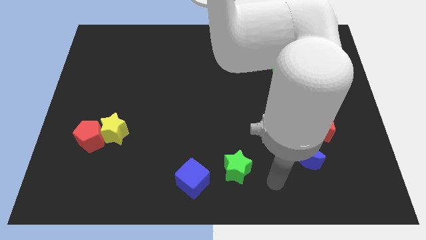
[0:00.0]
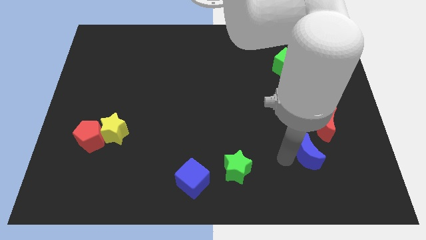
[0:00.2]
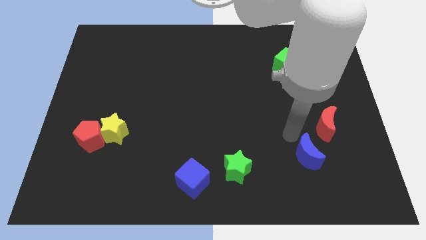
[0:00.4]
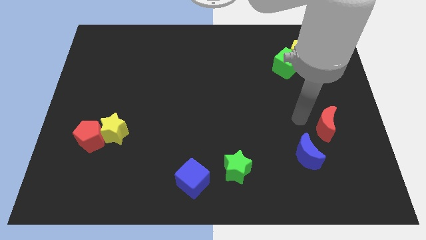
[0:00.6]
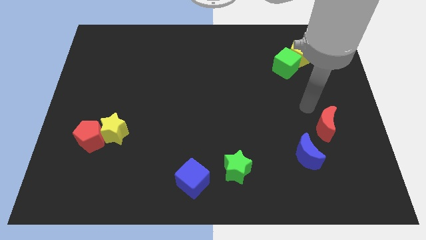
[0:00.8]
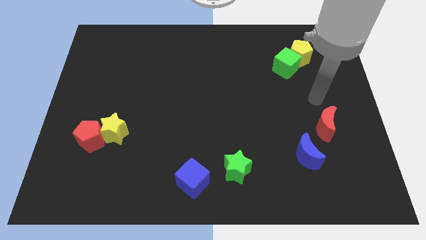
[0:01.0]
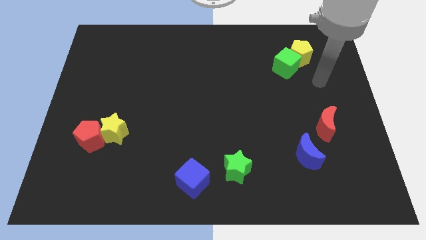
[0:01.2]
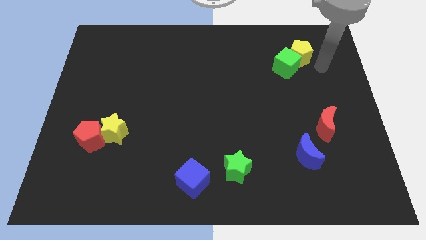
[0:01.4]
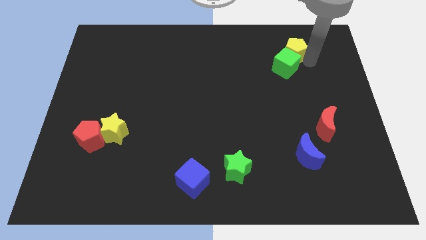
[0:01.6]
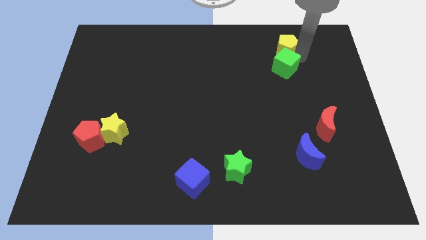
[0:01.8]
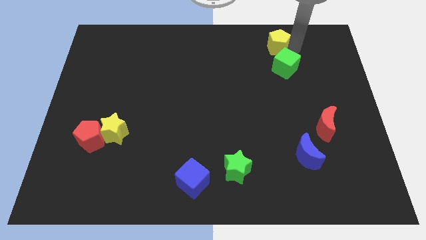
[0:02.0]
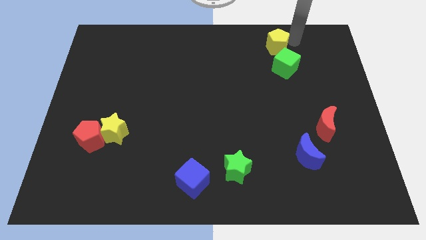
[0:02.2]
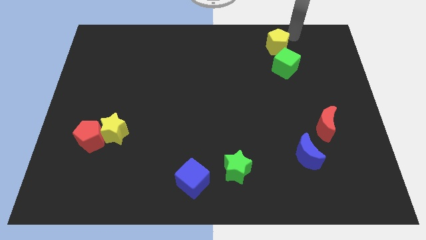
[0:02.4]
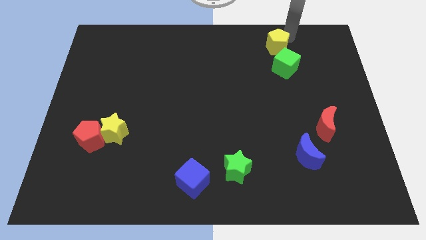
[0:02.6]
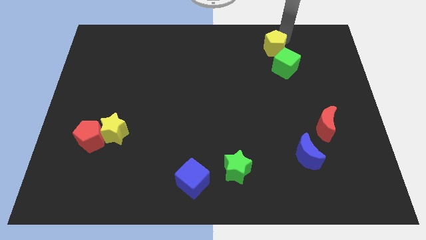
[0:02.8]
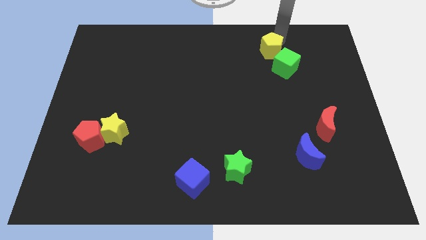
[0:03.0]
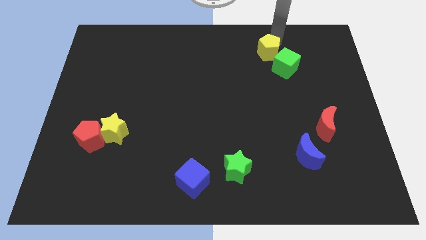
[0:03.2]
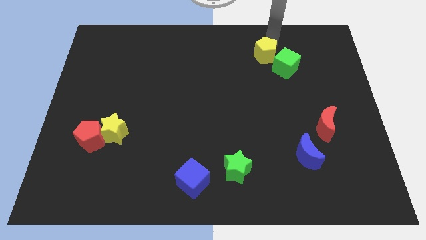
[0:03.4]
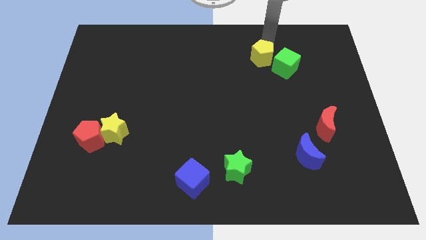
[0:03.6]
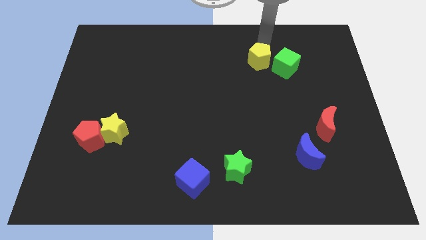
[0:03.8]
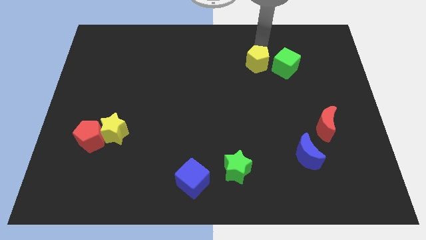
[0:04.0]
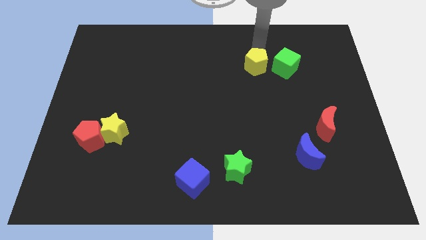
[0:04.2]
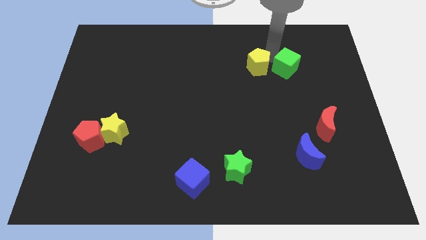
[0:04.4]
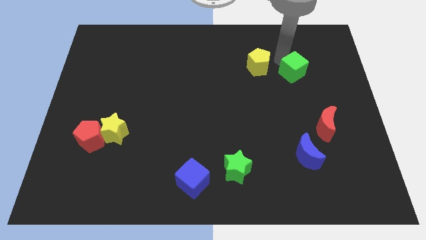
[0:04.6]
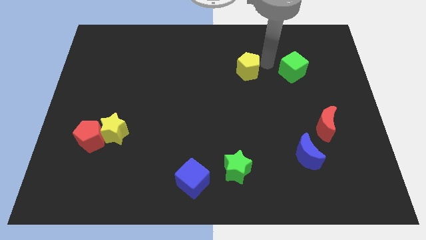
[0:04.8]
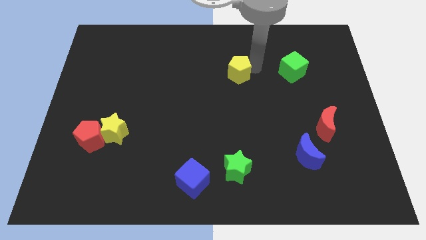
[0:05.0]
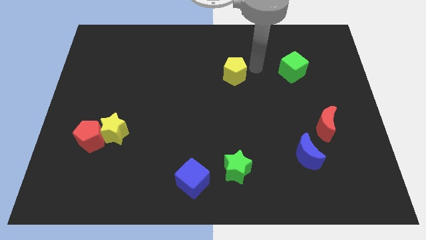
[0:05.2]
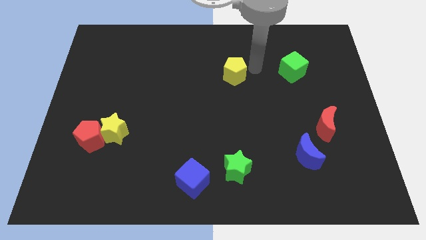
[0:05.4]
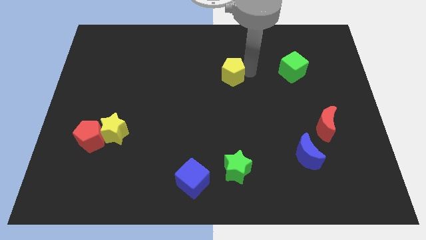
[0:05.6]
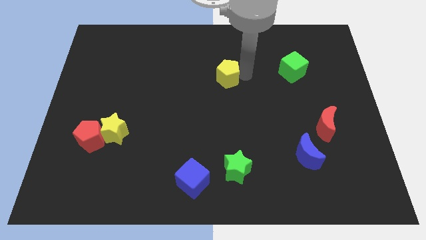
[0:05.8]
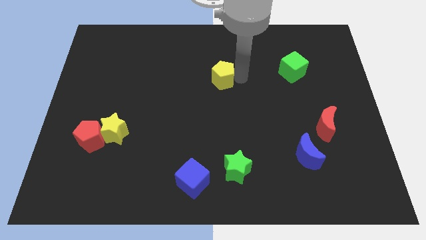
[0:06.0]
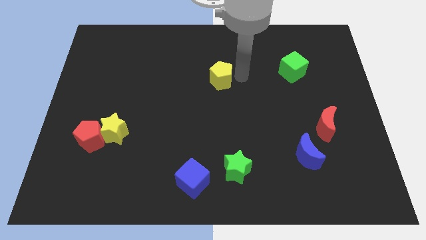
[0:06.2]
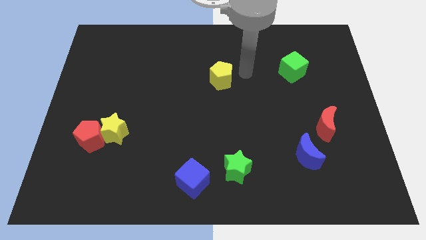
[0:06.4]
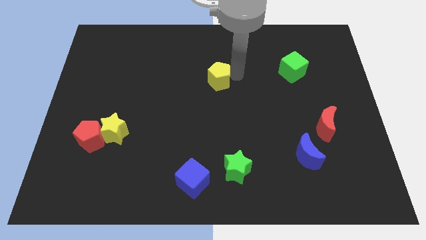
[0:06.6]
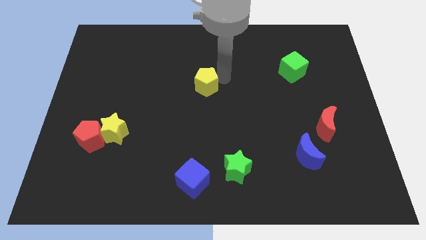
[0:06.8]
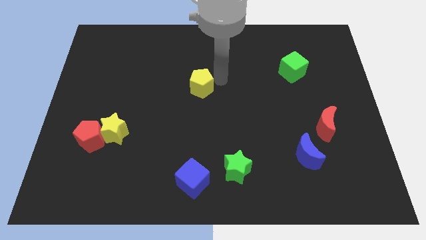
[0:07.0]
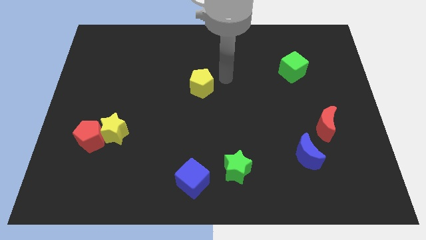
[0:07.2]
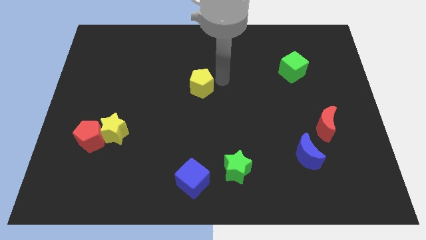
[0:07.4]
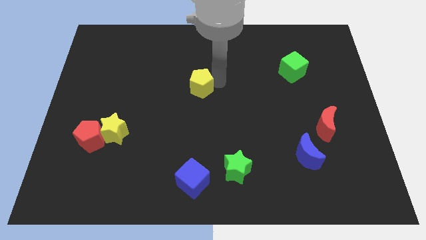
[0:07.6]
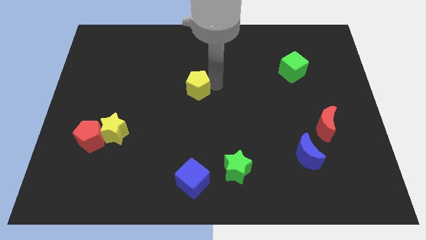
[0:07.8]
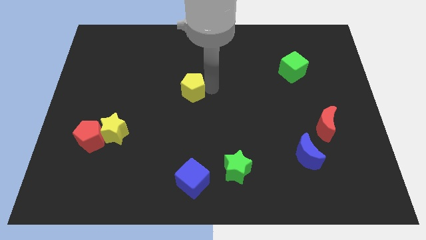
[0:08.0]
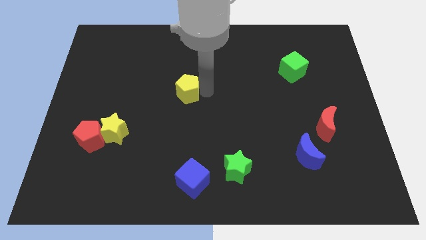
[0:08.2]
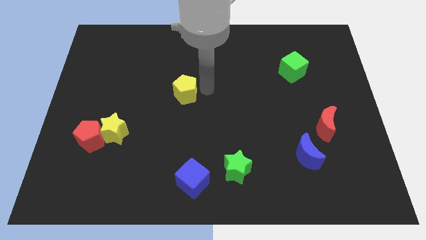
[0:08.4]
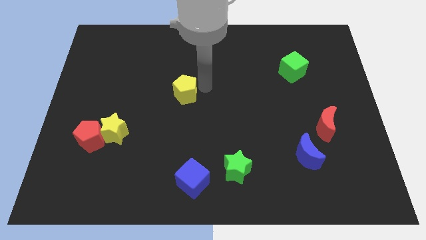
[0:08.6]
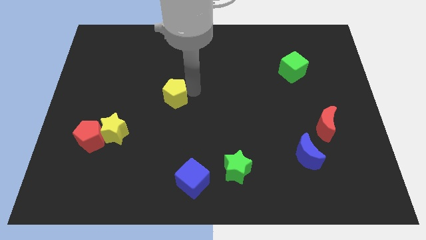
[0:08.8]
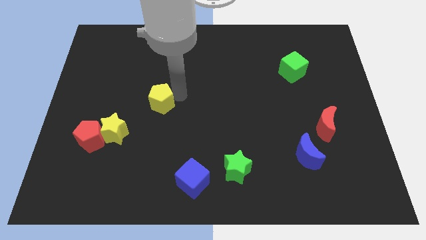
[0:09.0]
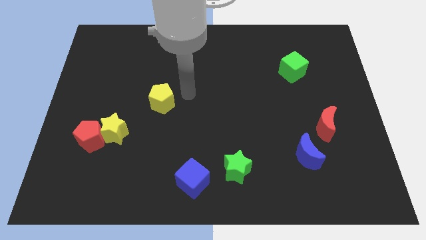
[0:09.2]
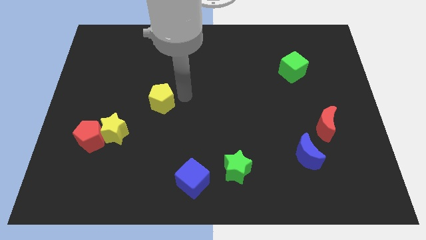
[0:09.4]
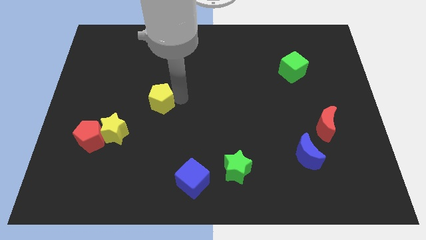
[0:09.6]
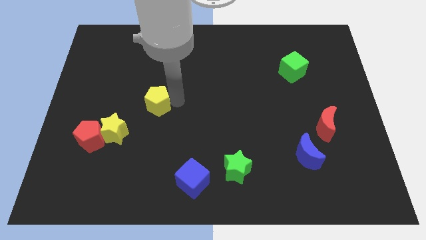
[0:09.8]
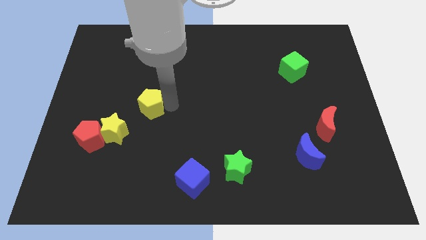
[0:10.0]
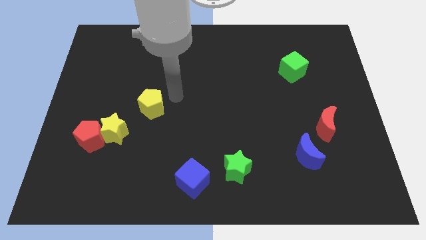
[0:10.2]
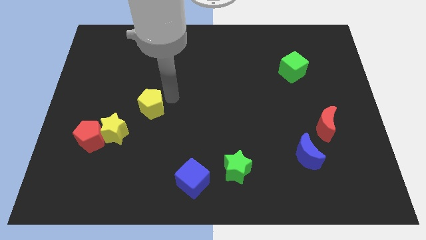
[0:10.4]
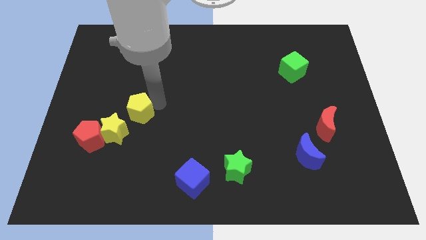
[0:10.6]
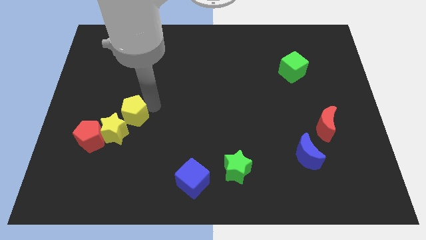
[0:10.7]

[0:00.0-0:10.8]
move the yellow pentagon towards the yellow star

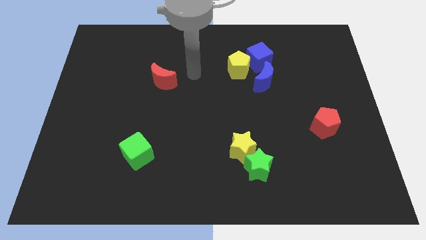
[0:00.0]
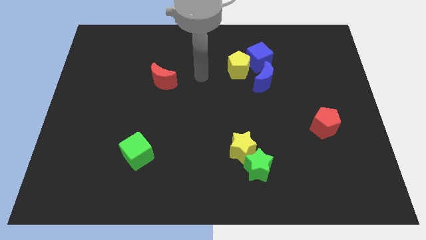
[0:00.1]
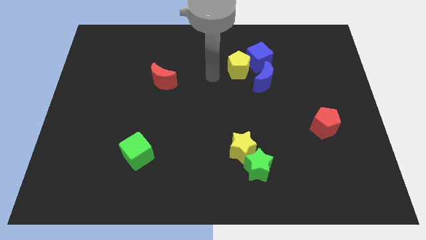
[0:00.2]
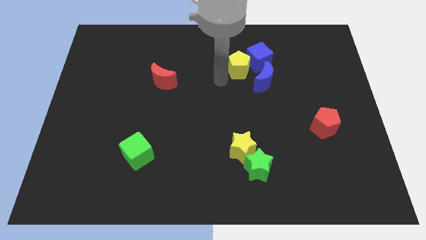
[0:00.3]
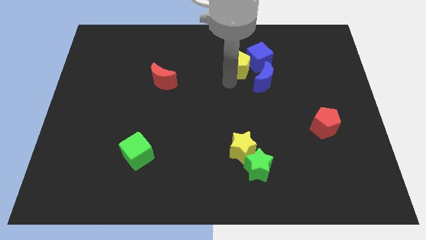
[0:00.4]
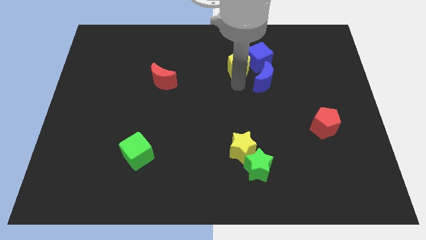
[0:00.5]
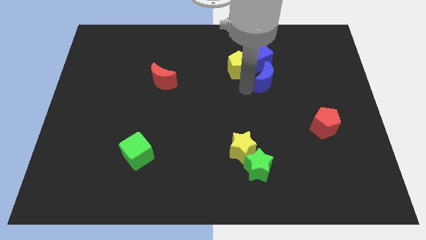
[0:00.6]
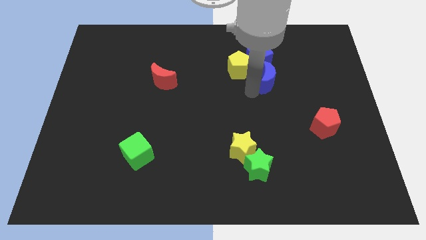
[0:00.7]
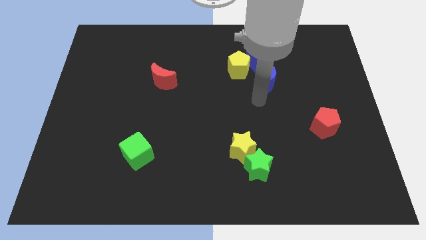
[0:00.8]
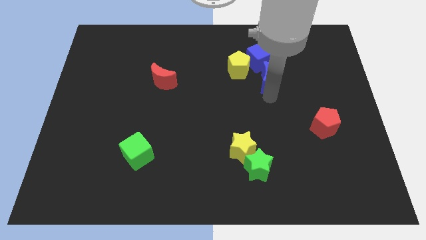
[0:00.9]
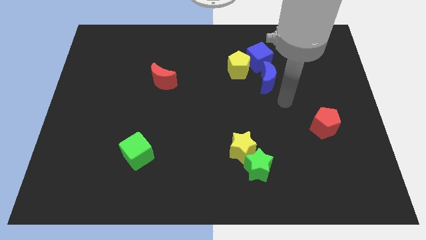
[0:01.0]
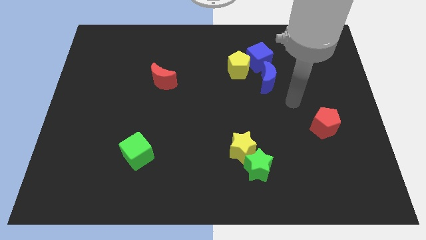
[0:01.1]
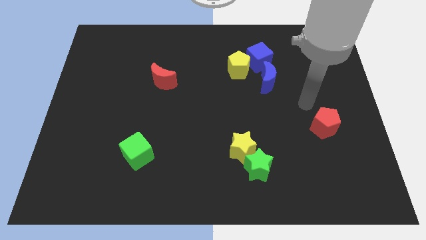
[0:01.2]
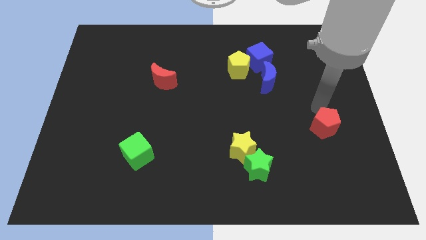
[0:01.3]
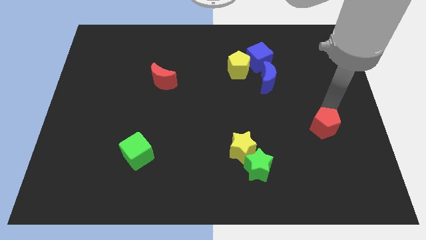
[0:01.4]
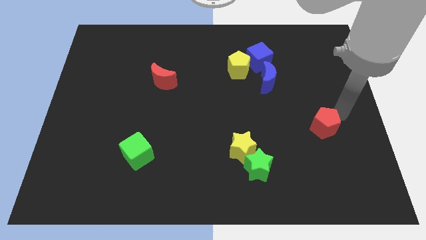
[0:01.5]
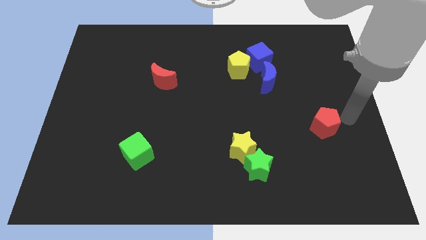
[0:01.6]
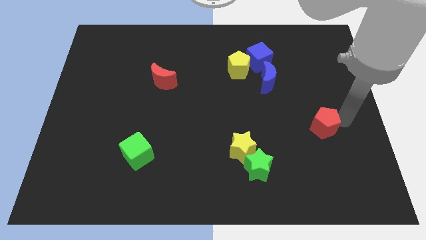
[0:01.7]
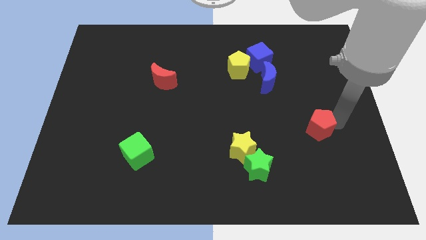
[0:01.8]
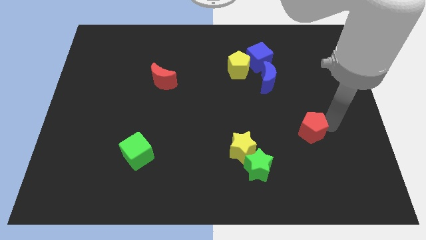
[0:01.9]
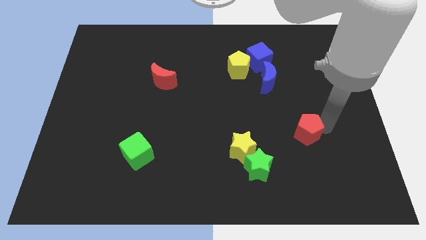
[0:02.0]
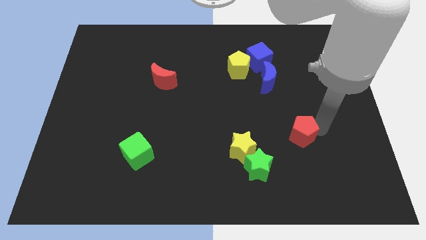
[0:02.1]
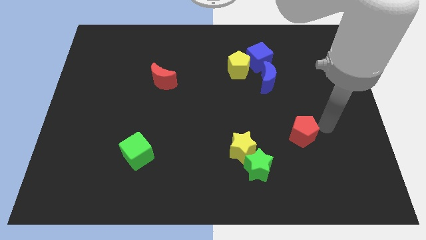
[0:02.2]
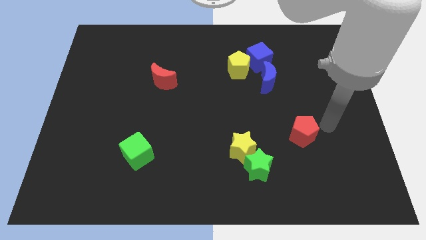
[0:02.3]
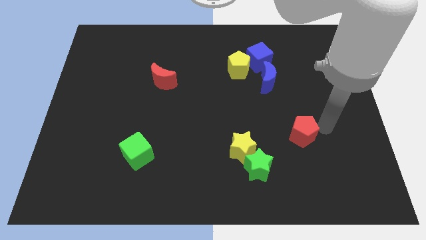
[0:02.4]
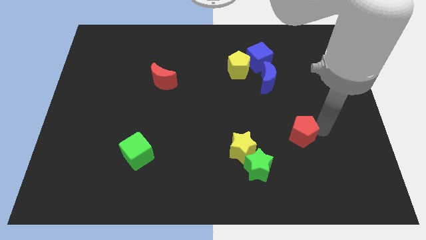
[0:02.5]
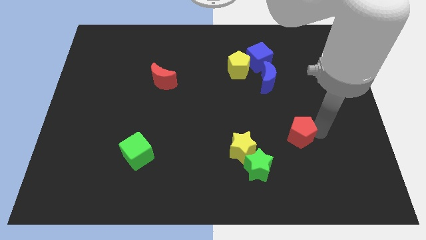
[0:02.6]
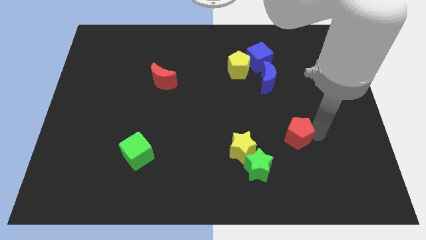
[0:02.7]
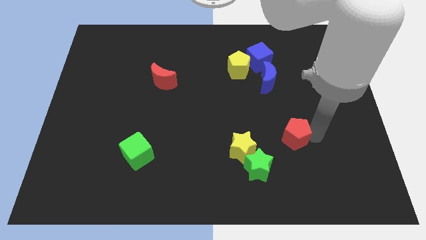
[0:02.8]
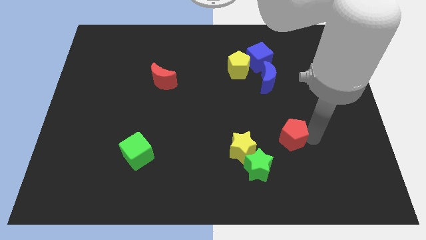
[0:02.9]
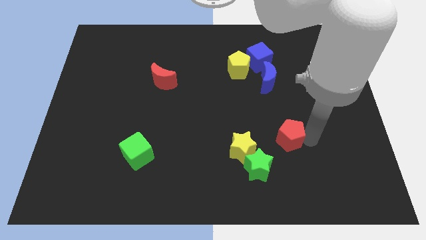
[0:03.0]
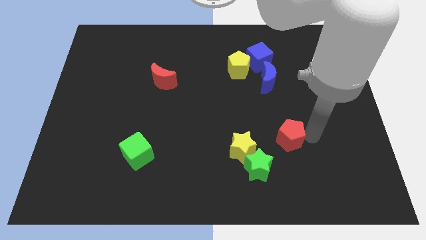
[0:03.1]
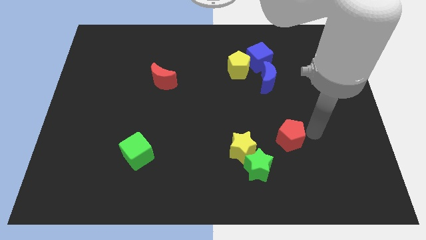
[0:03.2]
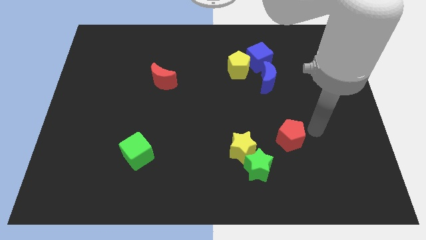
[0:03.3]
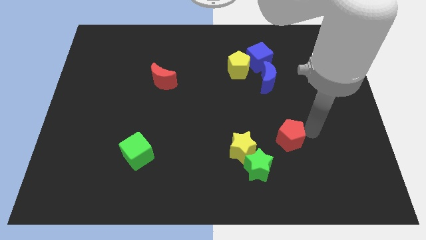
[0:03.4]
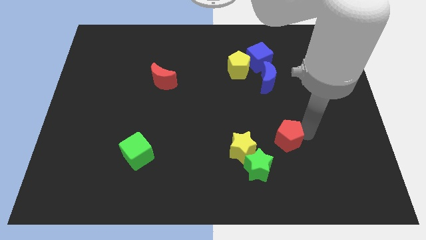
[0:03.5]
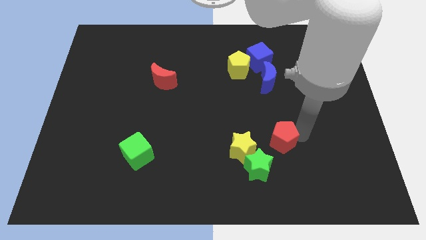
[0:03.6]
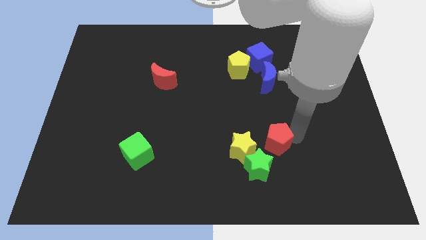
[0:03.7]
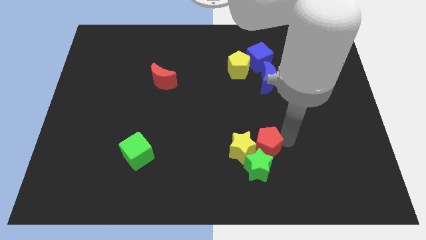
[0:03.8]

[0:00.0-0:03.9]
push the red pentagon to the yellow star
